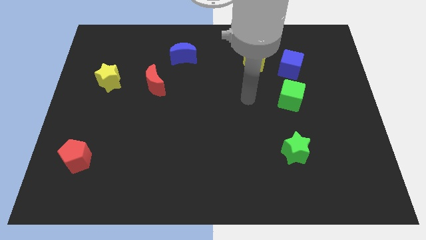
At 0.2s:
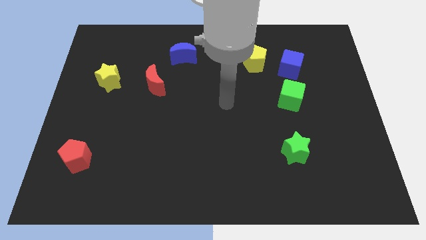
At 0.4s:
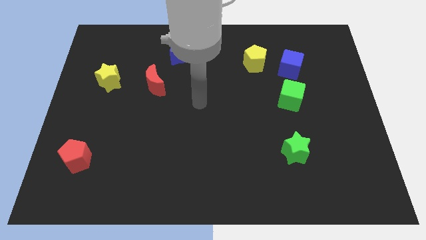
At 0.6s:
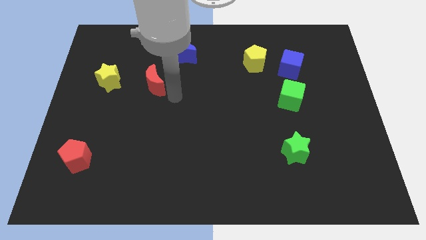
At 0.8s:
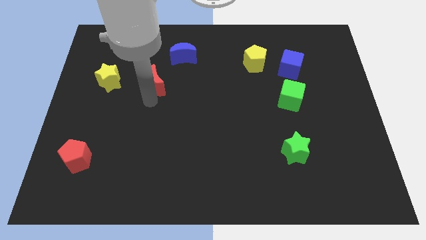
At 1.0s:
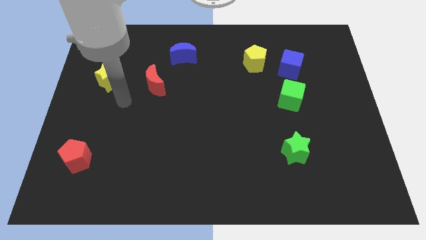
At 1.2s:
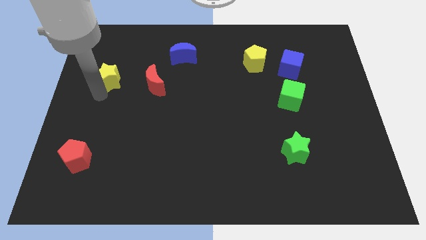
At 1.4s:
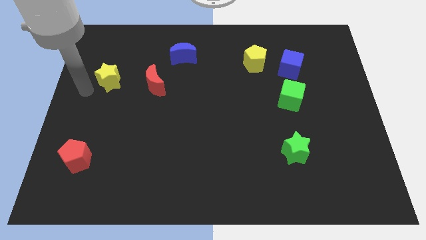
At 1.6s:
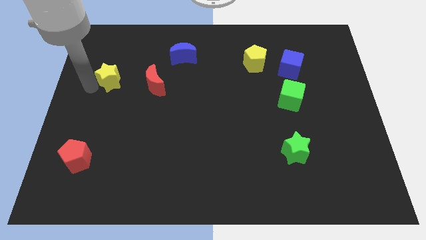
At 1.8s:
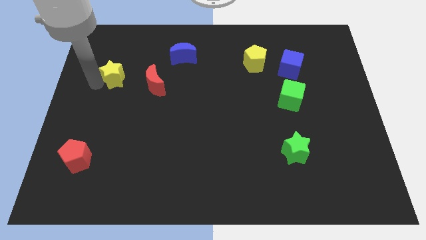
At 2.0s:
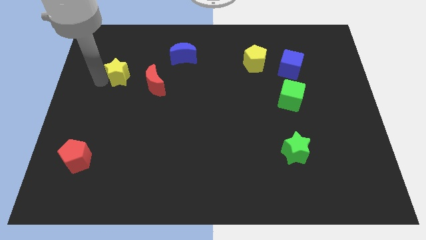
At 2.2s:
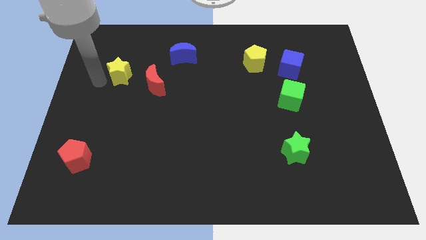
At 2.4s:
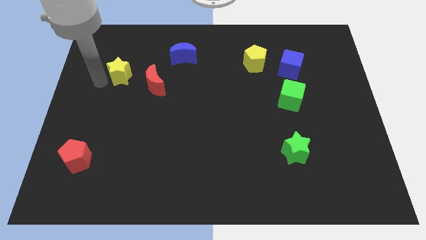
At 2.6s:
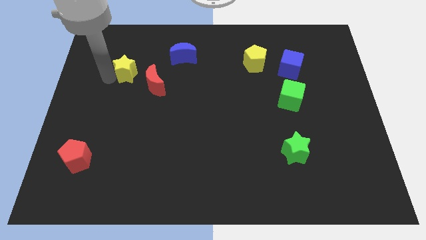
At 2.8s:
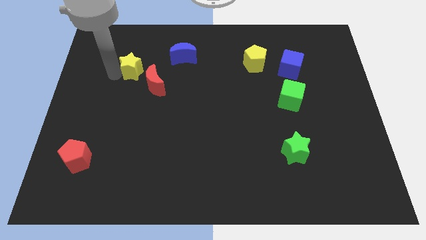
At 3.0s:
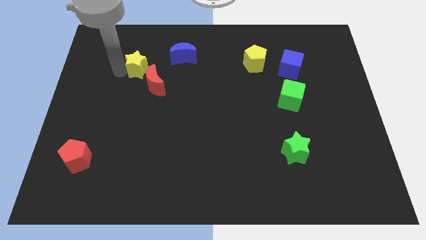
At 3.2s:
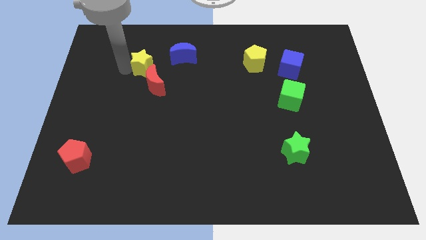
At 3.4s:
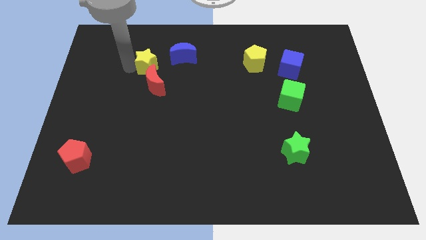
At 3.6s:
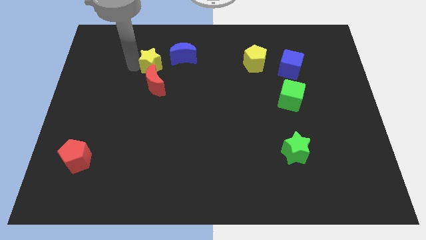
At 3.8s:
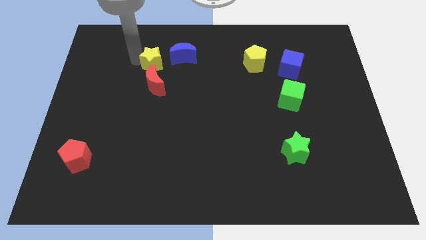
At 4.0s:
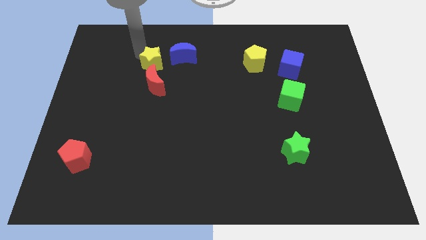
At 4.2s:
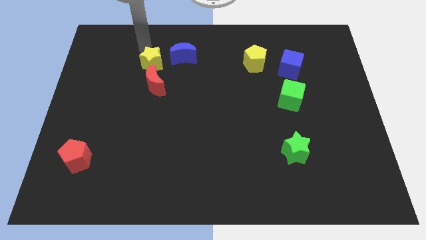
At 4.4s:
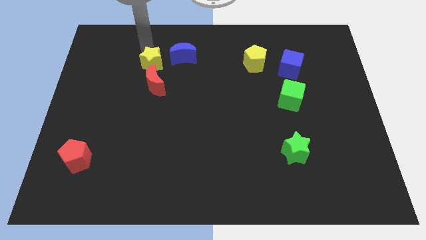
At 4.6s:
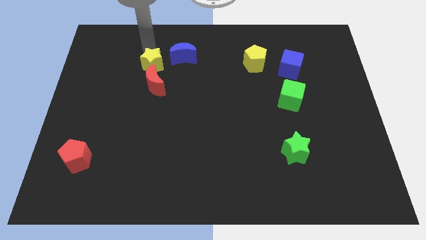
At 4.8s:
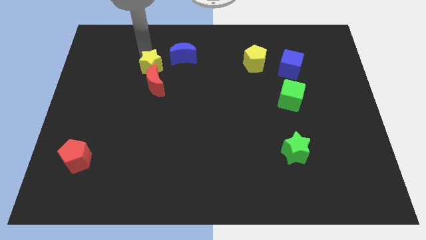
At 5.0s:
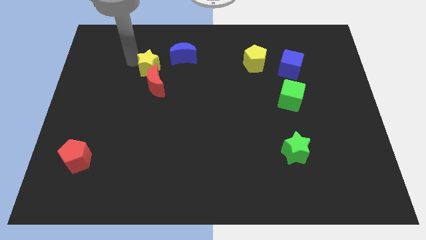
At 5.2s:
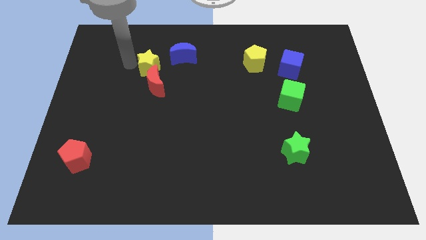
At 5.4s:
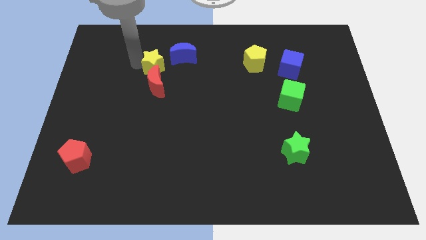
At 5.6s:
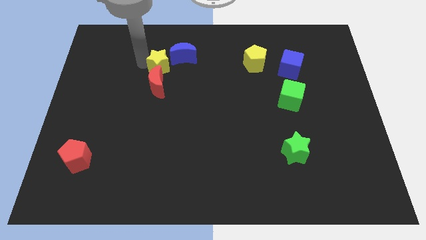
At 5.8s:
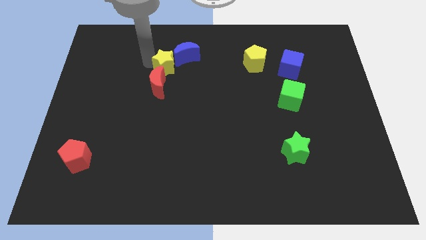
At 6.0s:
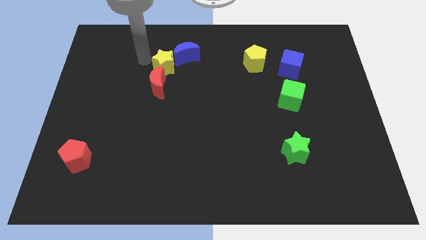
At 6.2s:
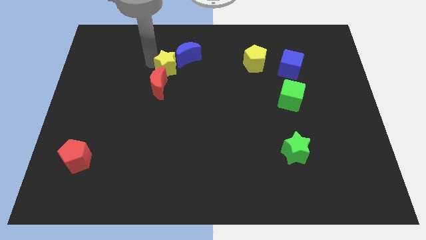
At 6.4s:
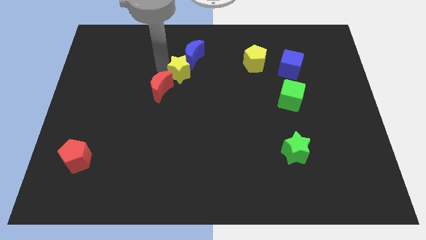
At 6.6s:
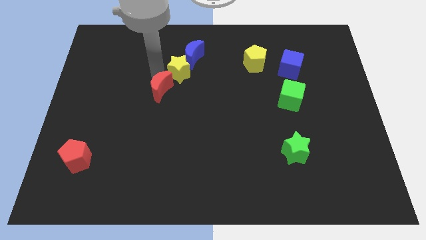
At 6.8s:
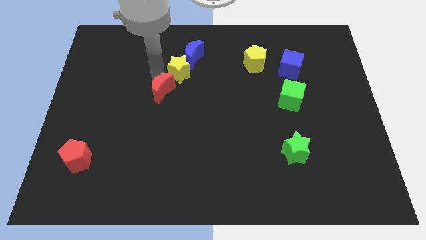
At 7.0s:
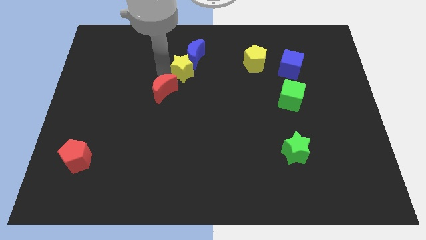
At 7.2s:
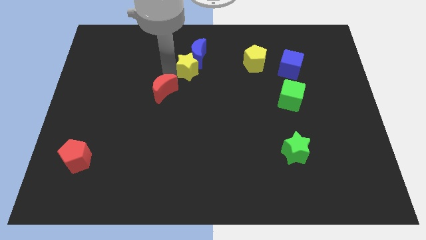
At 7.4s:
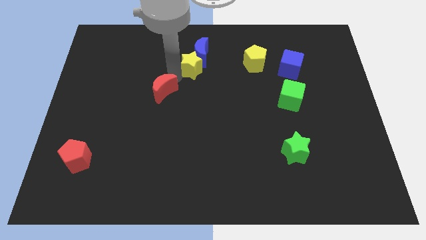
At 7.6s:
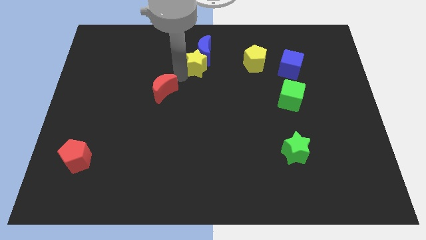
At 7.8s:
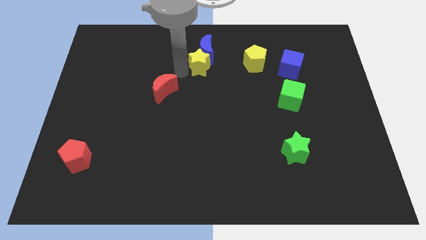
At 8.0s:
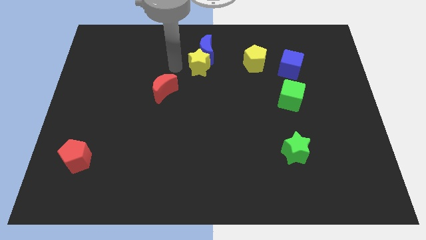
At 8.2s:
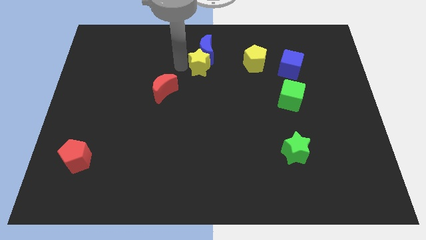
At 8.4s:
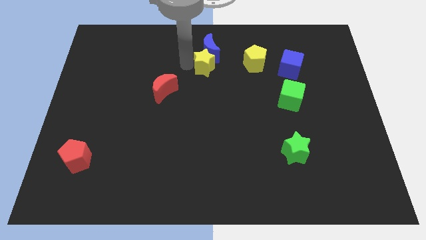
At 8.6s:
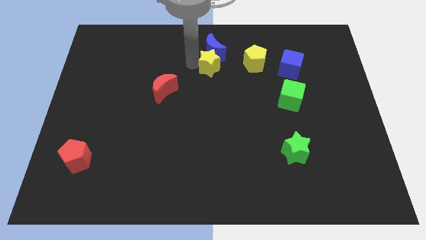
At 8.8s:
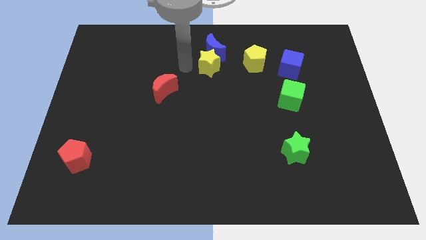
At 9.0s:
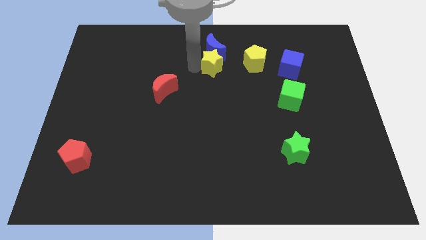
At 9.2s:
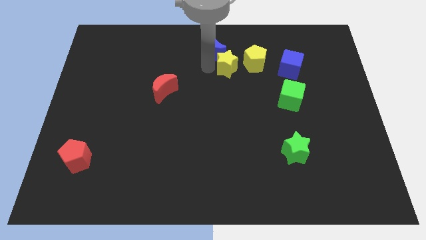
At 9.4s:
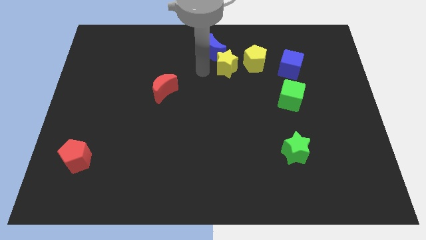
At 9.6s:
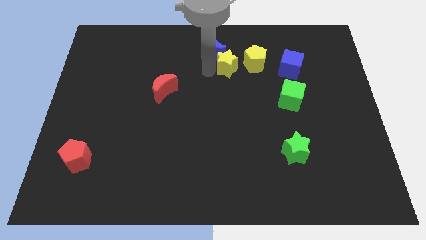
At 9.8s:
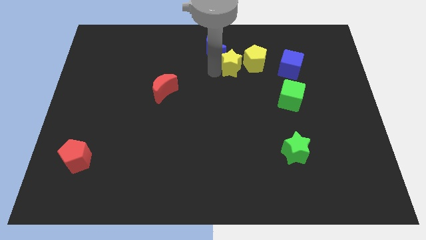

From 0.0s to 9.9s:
move the yellow star next to the yellow pentagon

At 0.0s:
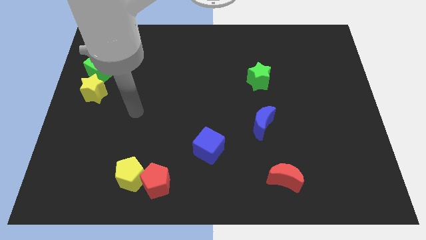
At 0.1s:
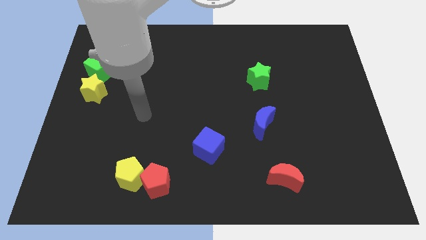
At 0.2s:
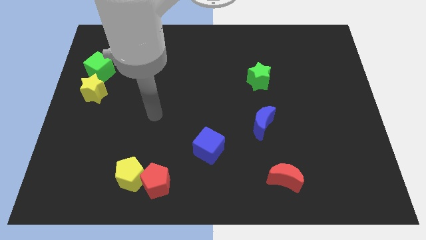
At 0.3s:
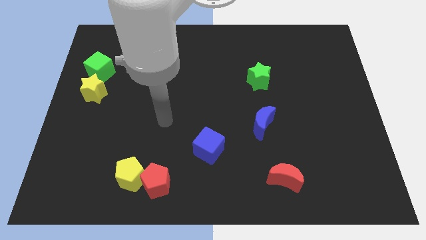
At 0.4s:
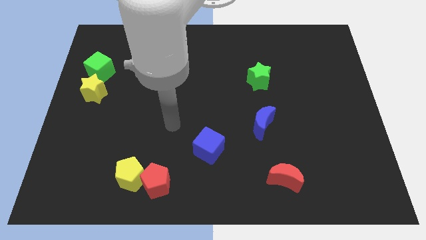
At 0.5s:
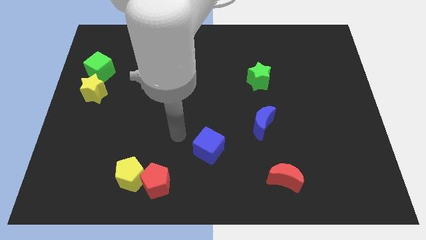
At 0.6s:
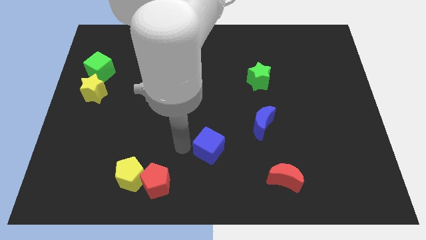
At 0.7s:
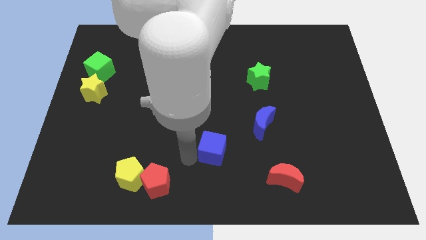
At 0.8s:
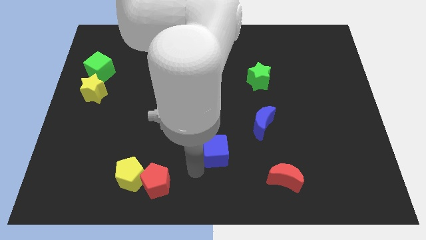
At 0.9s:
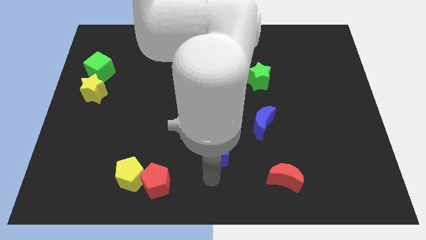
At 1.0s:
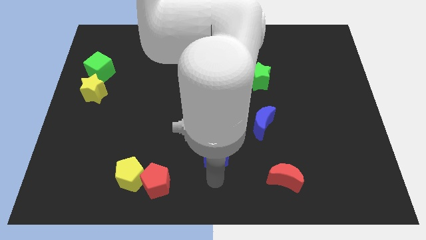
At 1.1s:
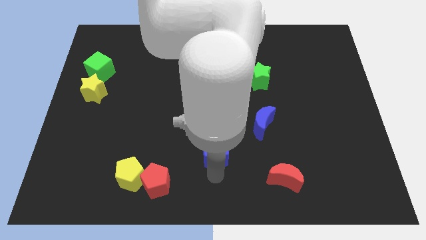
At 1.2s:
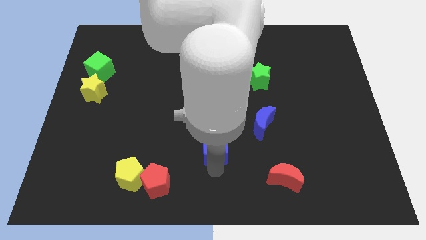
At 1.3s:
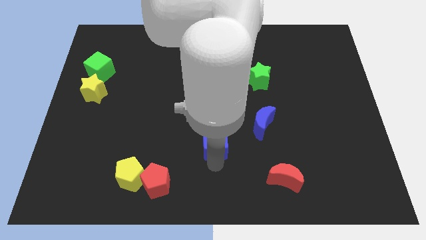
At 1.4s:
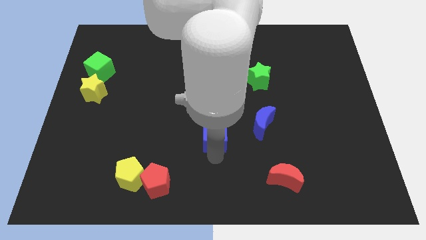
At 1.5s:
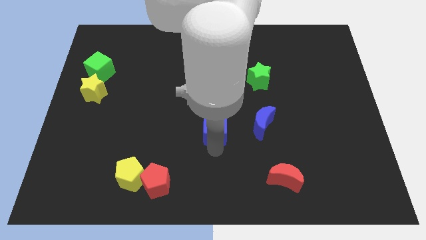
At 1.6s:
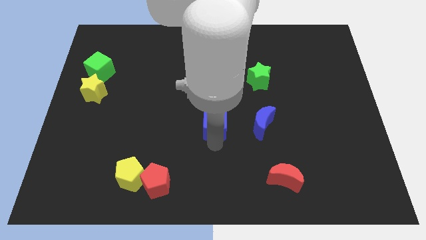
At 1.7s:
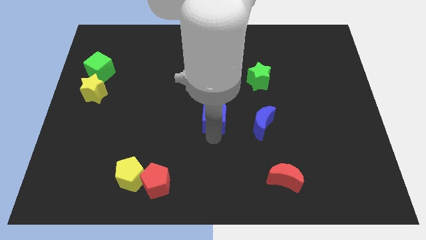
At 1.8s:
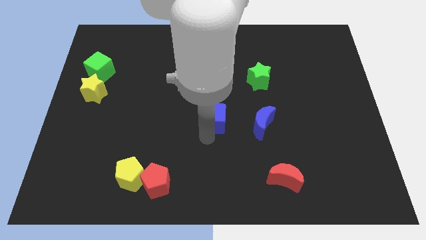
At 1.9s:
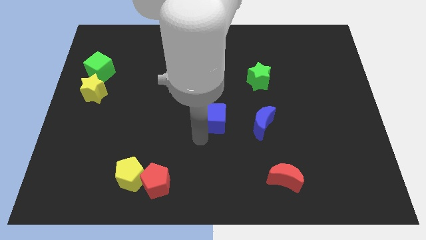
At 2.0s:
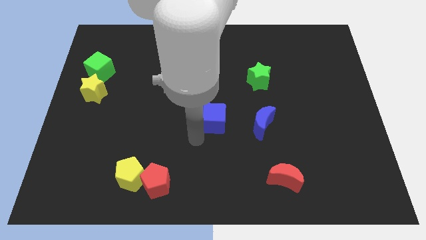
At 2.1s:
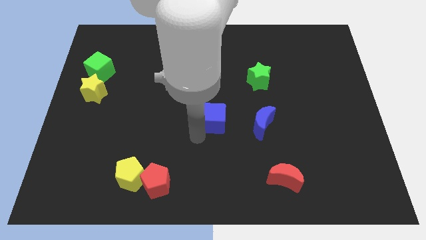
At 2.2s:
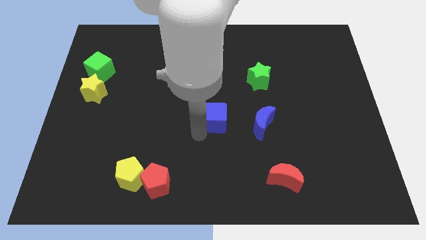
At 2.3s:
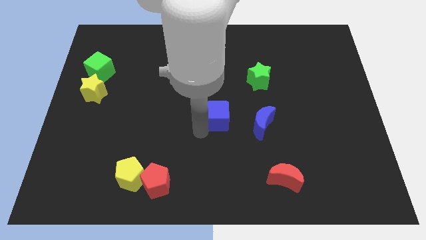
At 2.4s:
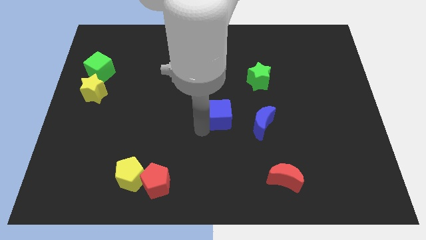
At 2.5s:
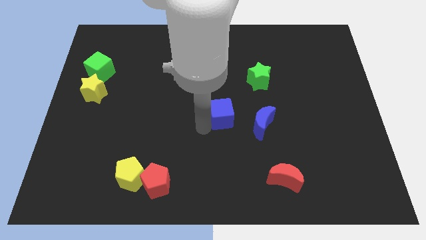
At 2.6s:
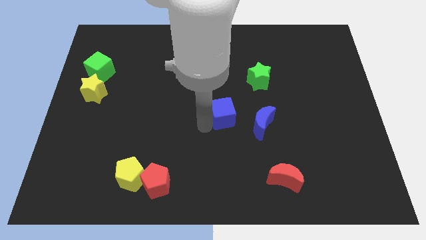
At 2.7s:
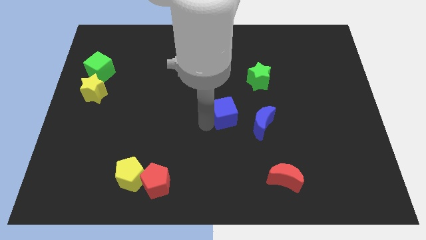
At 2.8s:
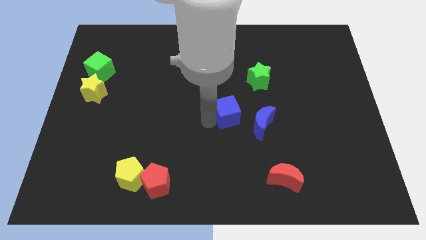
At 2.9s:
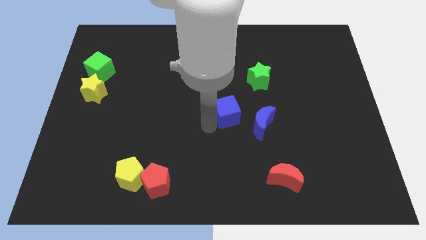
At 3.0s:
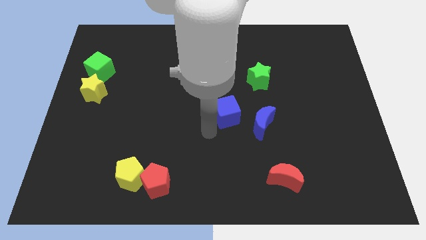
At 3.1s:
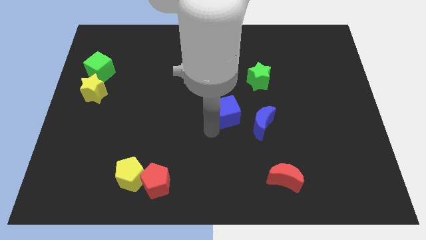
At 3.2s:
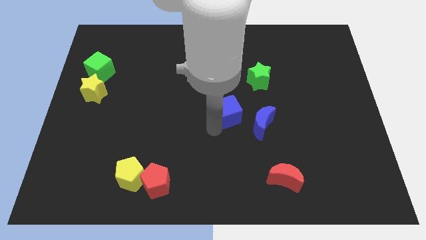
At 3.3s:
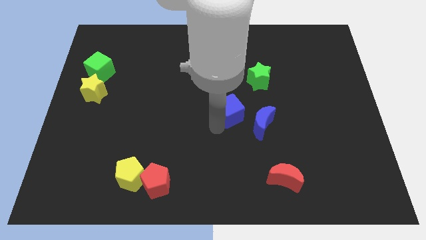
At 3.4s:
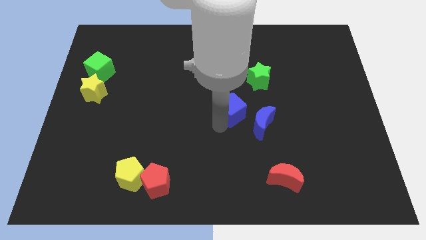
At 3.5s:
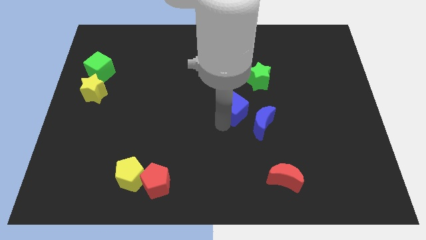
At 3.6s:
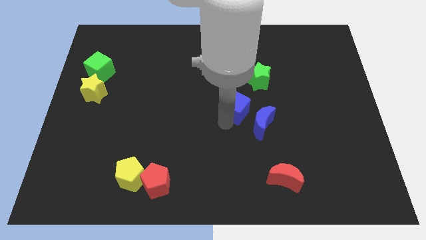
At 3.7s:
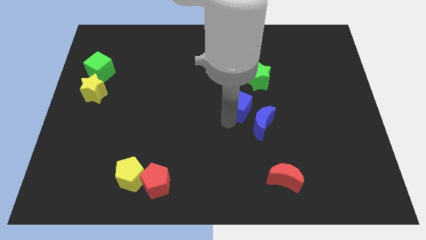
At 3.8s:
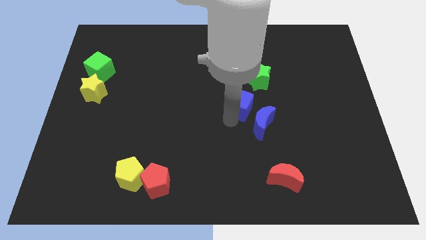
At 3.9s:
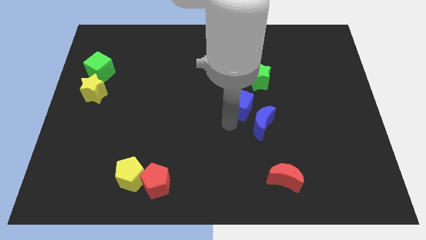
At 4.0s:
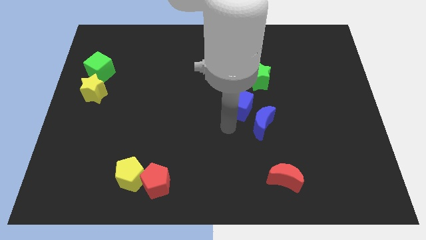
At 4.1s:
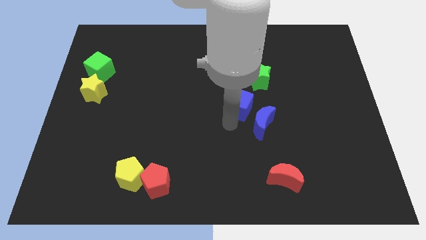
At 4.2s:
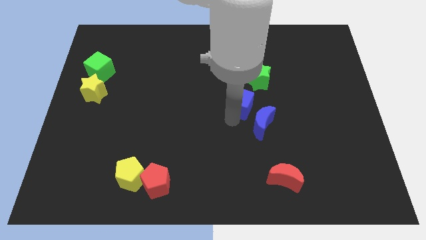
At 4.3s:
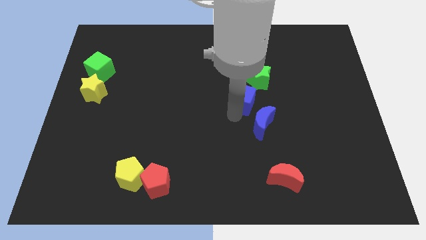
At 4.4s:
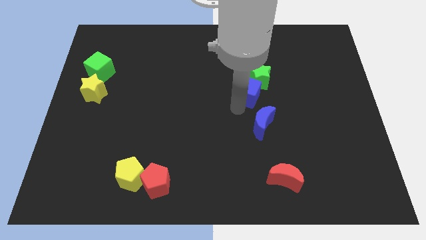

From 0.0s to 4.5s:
slide the blue cube next to the green star
